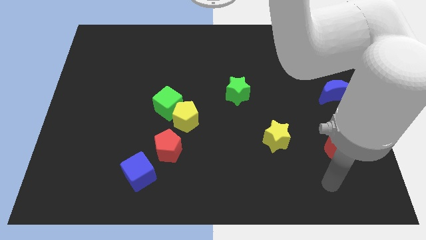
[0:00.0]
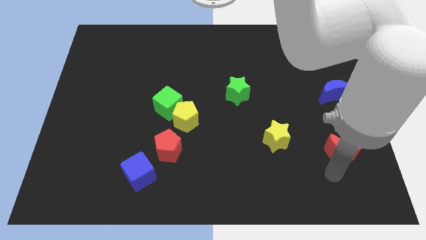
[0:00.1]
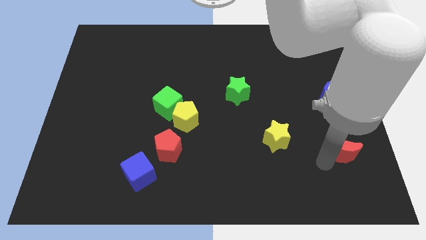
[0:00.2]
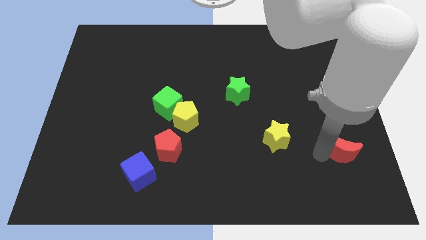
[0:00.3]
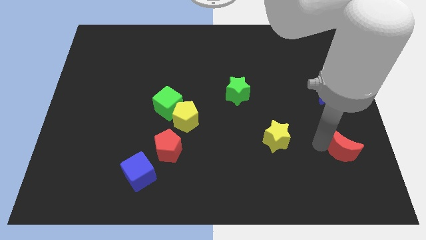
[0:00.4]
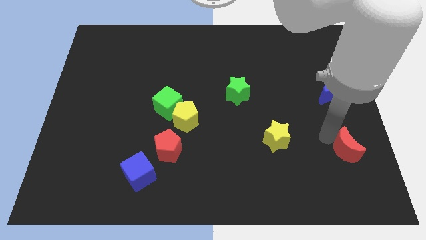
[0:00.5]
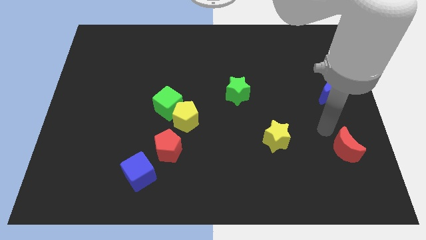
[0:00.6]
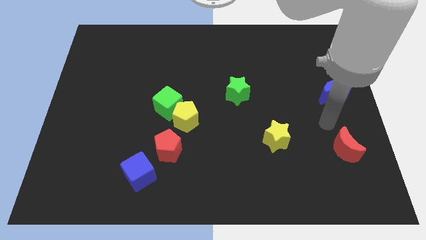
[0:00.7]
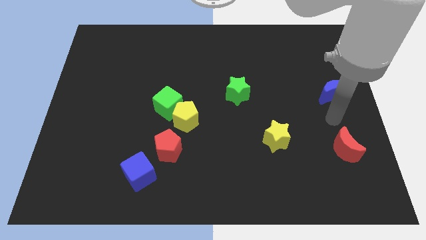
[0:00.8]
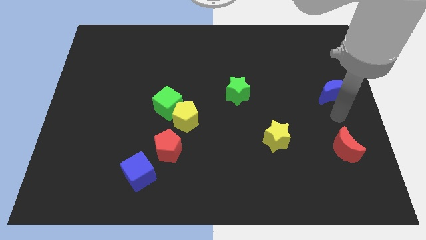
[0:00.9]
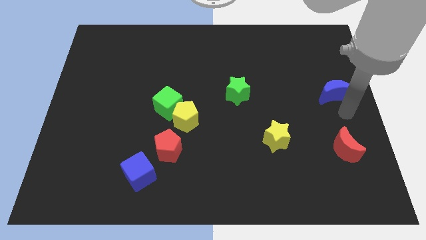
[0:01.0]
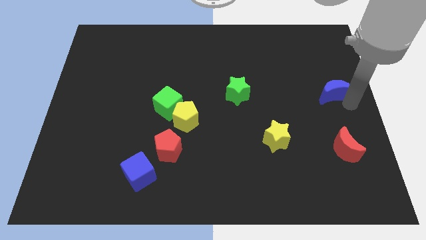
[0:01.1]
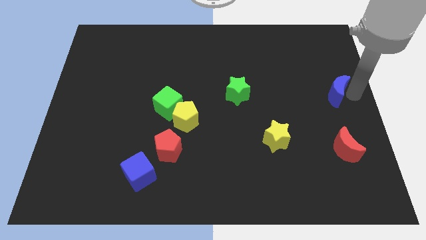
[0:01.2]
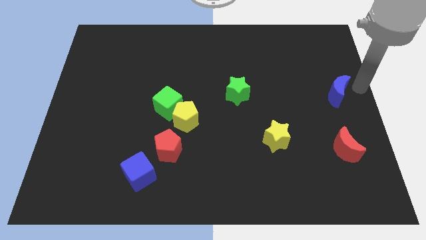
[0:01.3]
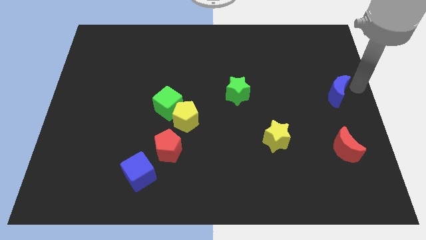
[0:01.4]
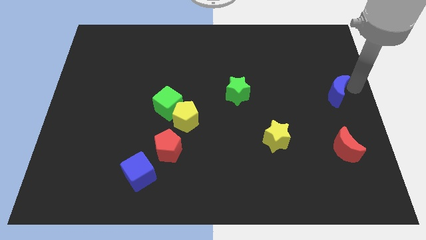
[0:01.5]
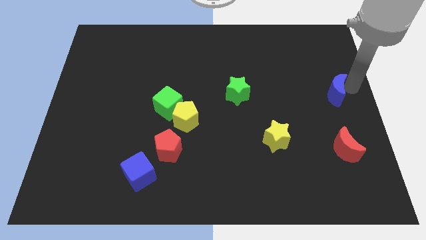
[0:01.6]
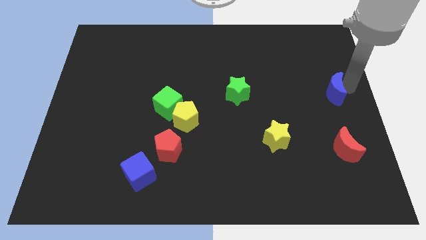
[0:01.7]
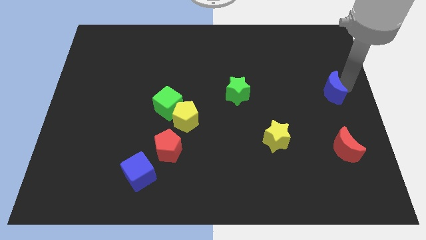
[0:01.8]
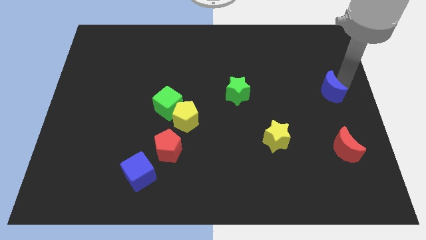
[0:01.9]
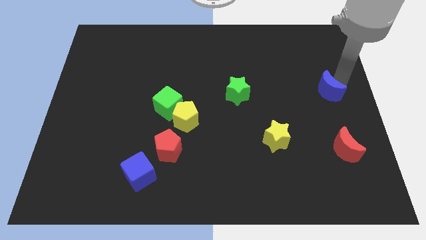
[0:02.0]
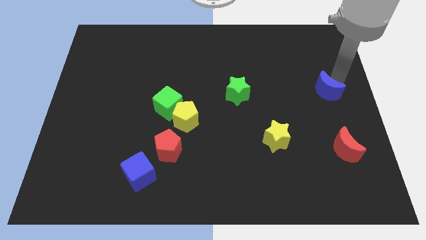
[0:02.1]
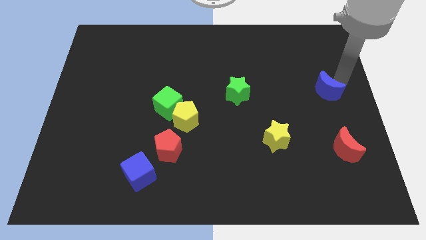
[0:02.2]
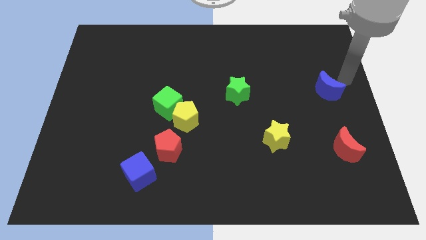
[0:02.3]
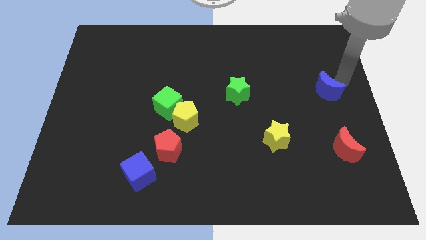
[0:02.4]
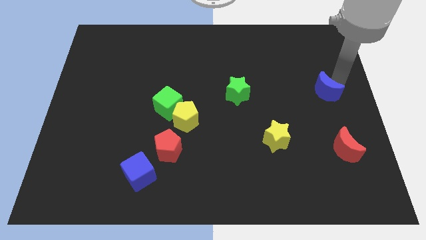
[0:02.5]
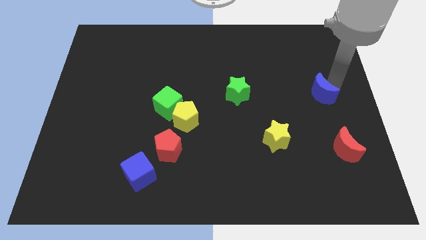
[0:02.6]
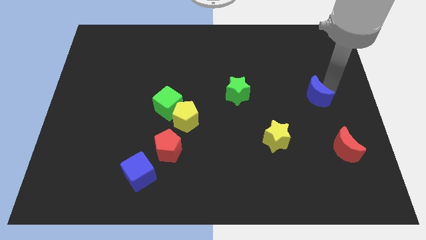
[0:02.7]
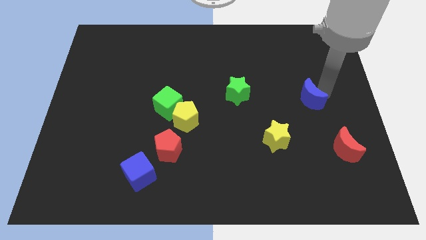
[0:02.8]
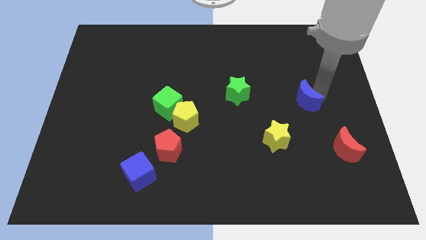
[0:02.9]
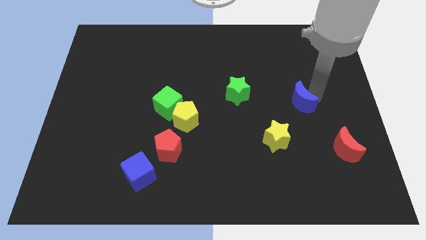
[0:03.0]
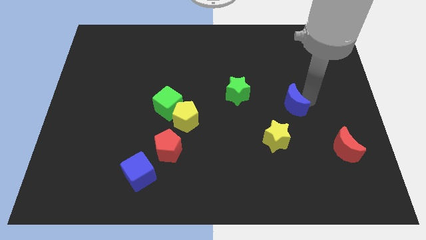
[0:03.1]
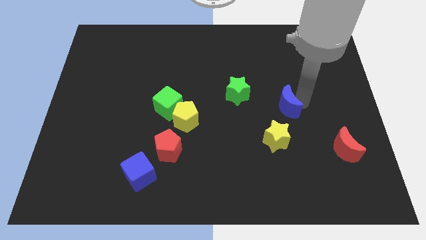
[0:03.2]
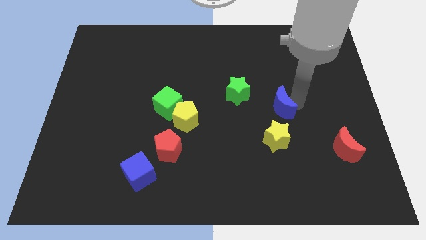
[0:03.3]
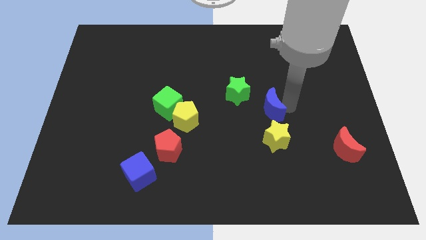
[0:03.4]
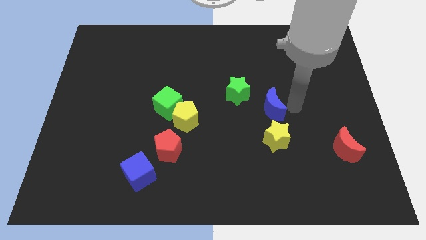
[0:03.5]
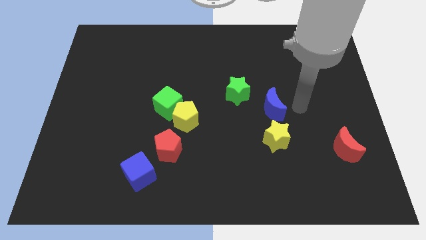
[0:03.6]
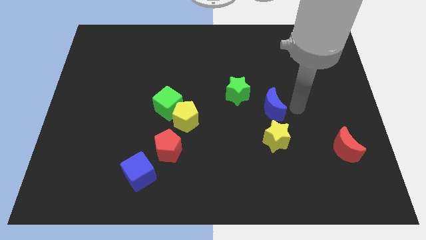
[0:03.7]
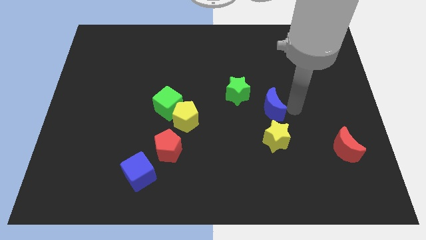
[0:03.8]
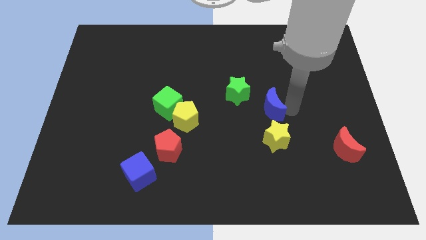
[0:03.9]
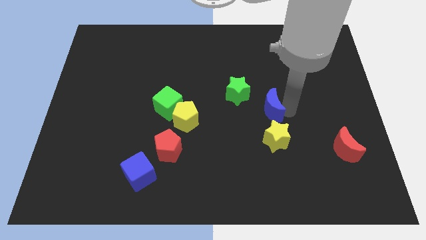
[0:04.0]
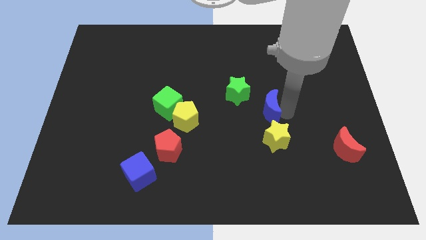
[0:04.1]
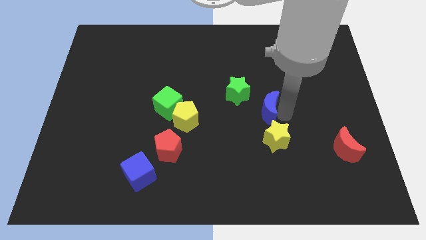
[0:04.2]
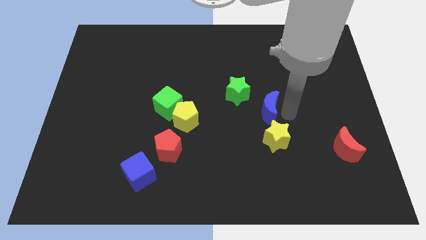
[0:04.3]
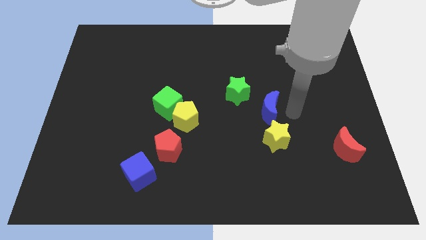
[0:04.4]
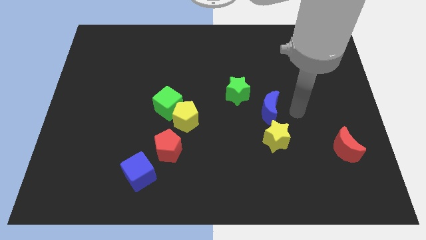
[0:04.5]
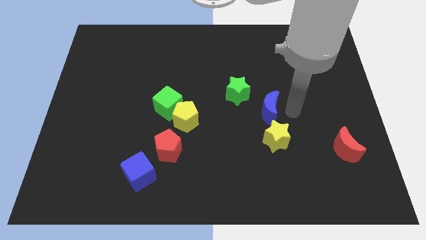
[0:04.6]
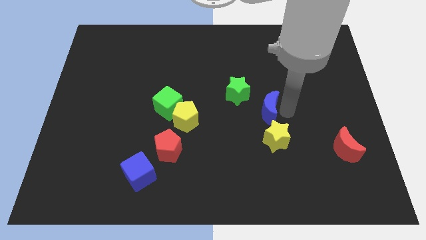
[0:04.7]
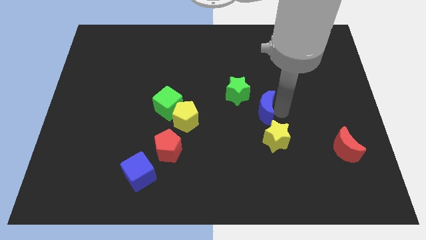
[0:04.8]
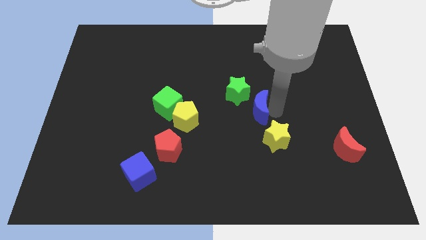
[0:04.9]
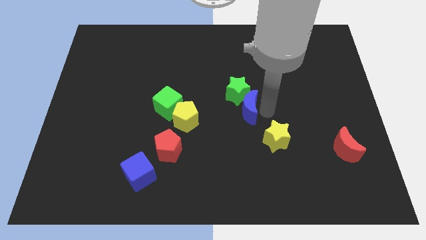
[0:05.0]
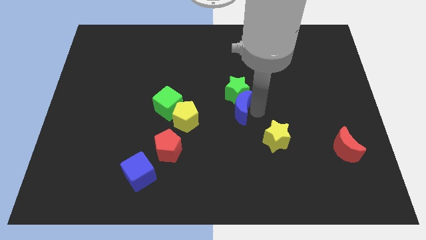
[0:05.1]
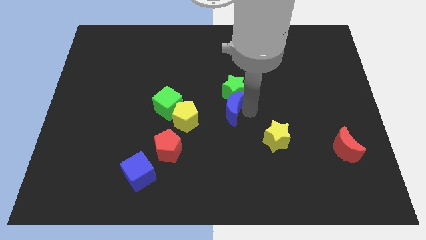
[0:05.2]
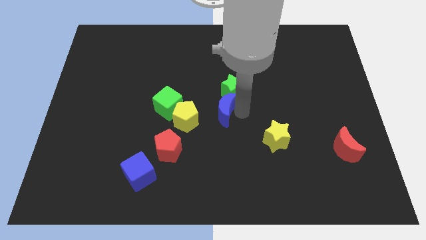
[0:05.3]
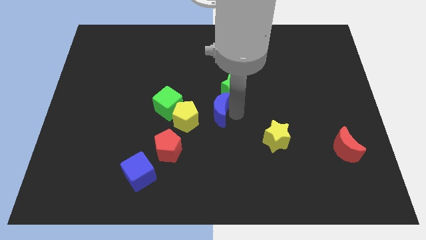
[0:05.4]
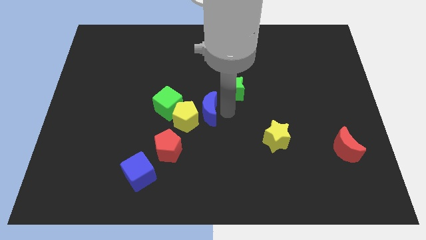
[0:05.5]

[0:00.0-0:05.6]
put the blue moon to the yellow pentagon

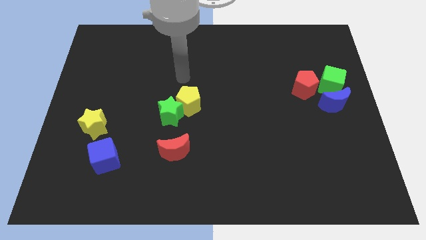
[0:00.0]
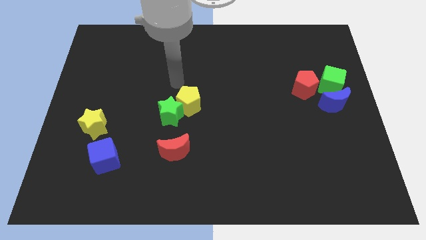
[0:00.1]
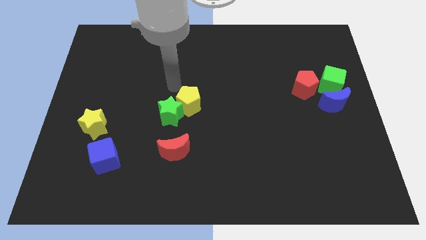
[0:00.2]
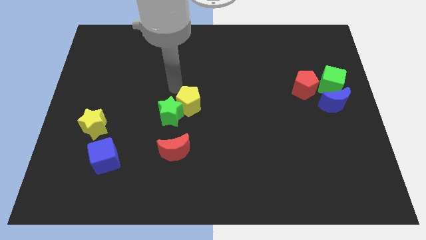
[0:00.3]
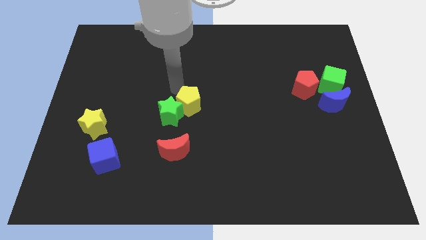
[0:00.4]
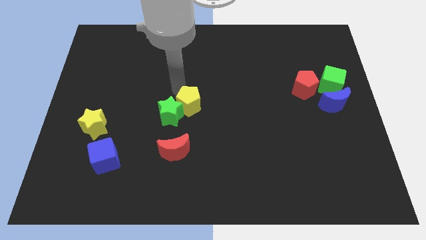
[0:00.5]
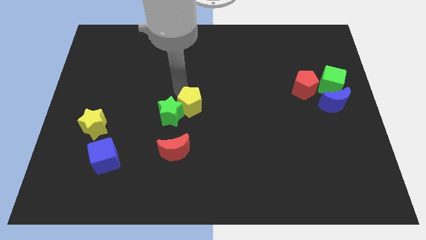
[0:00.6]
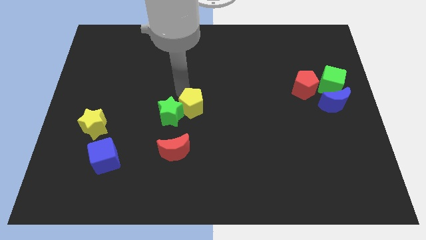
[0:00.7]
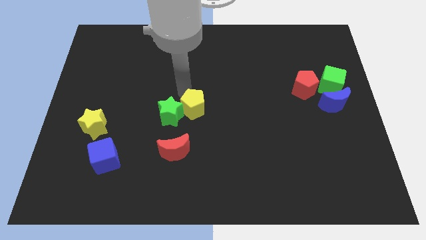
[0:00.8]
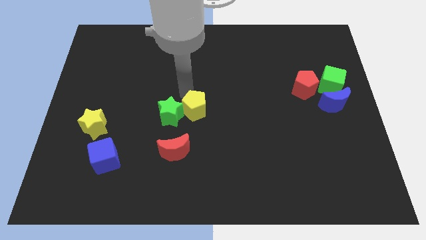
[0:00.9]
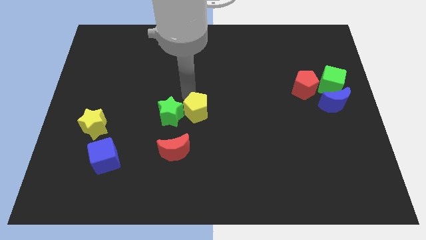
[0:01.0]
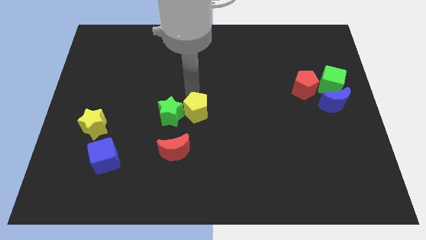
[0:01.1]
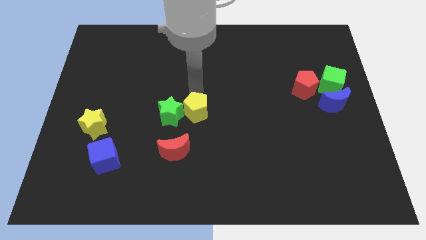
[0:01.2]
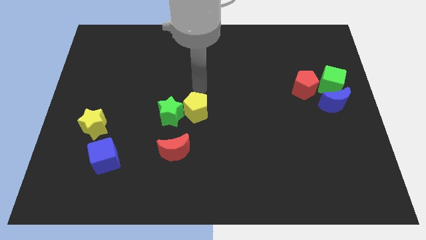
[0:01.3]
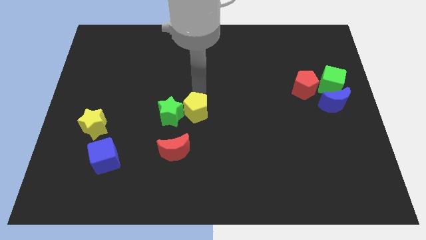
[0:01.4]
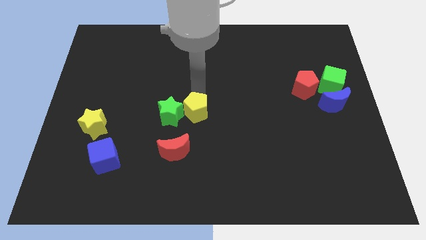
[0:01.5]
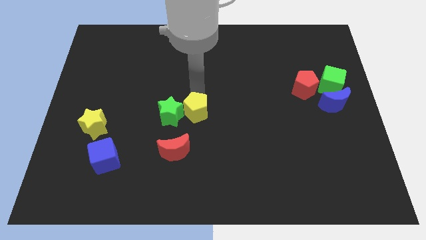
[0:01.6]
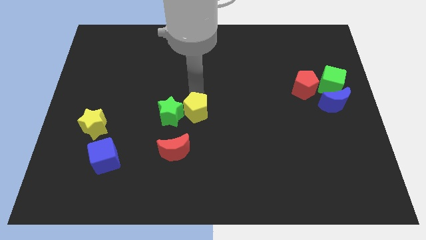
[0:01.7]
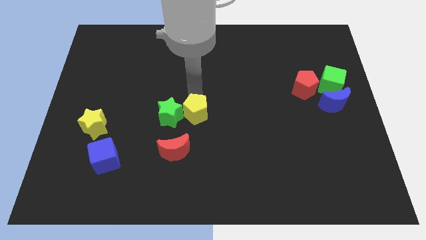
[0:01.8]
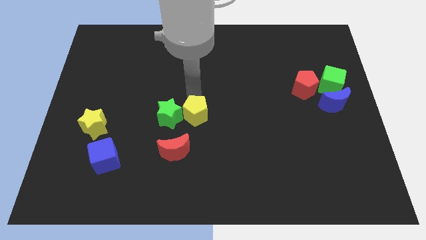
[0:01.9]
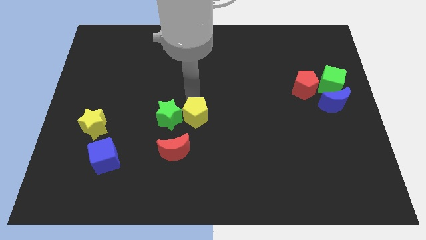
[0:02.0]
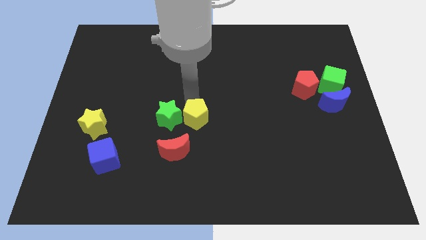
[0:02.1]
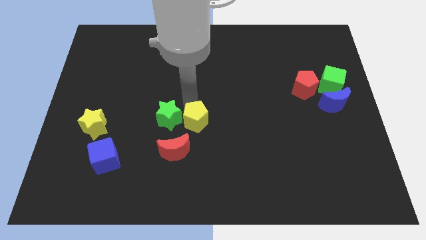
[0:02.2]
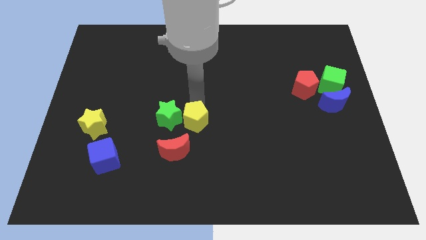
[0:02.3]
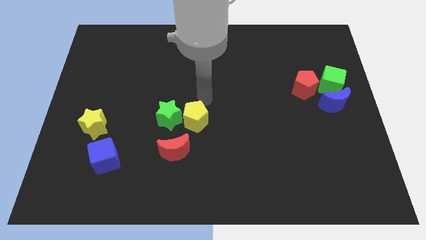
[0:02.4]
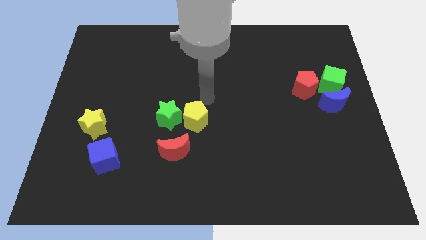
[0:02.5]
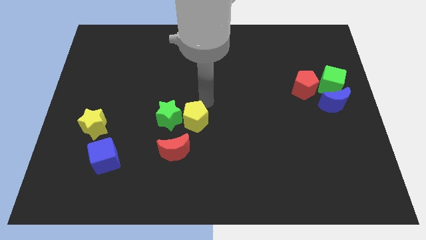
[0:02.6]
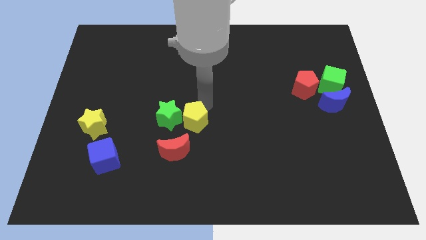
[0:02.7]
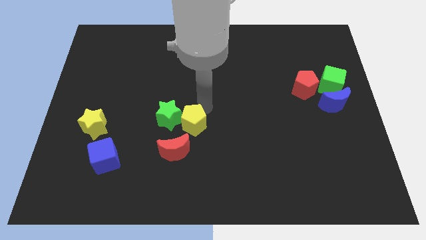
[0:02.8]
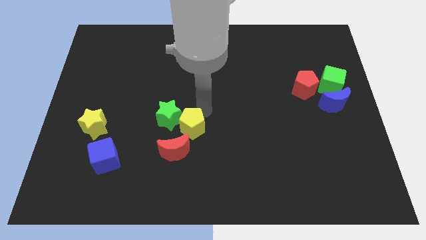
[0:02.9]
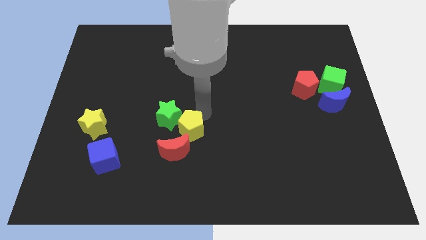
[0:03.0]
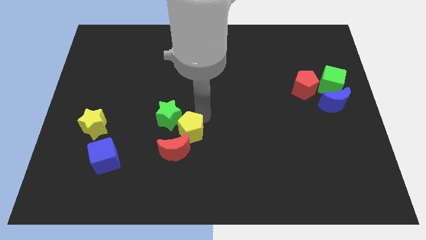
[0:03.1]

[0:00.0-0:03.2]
move the yellow pentagon next to the red moon
